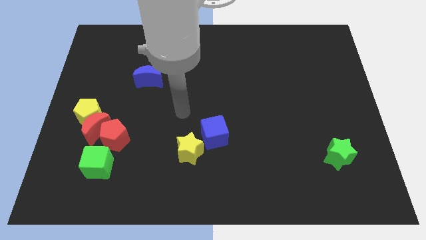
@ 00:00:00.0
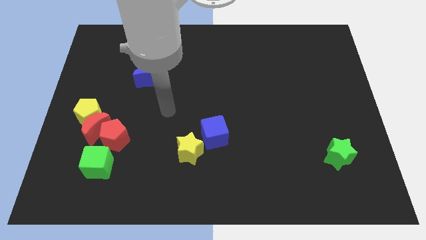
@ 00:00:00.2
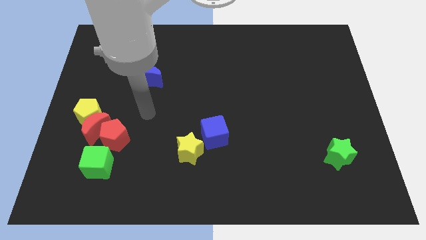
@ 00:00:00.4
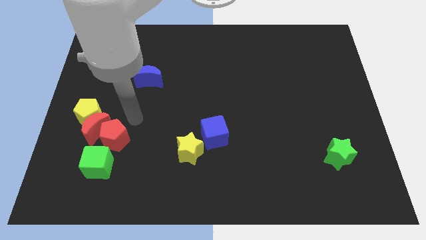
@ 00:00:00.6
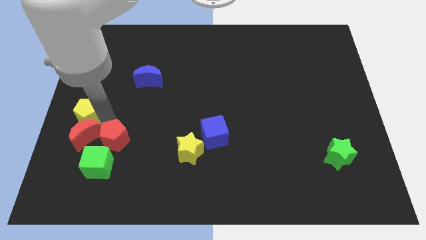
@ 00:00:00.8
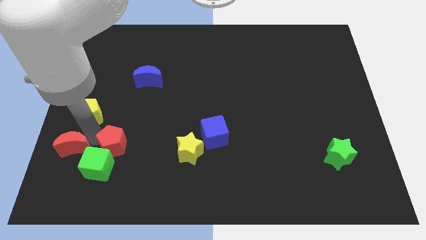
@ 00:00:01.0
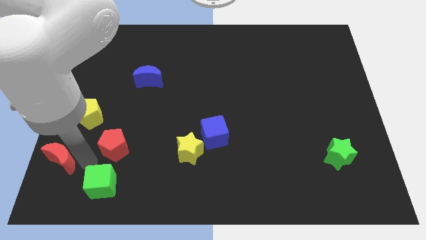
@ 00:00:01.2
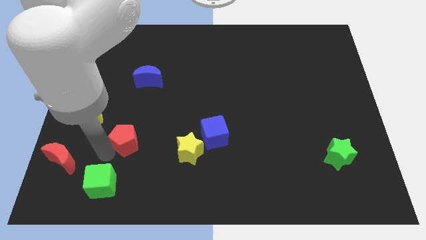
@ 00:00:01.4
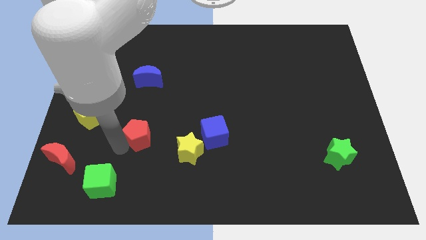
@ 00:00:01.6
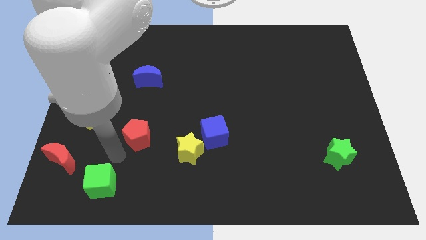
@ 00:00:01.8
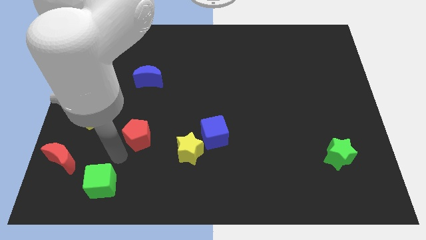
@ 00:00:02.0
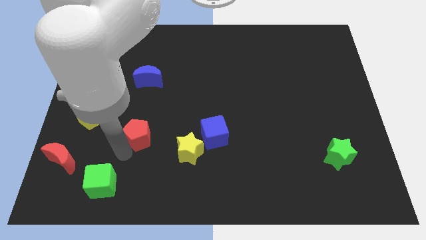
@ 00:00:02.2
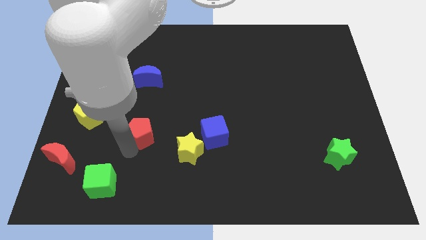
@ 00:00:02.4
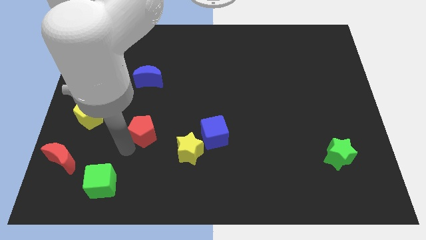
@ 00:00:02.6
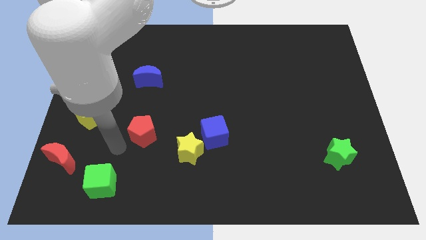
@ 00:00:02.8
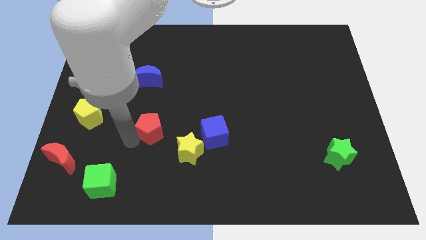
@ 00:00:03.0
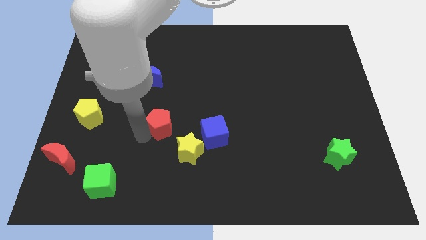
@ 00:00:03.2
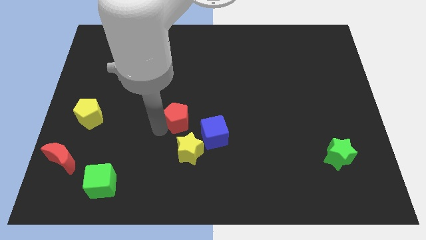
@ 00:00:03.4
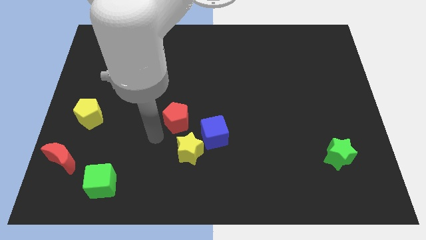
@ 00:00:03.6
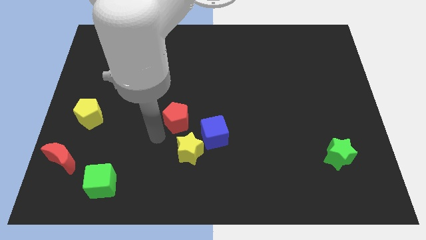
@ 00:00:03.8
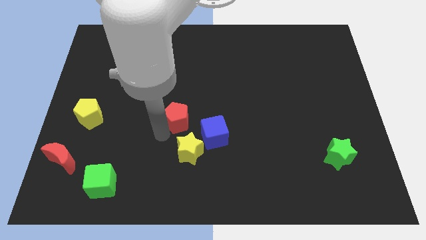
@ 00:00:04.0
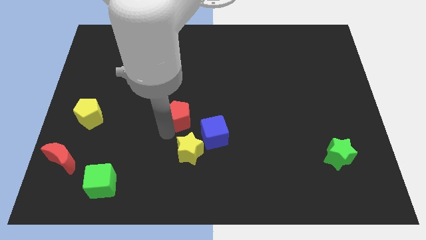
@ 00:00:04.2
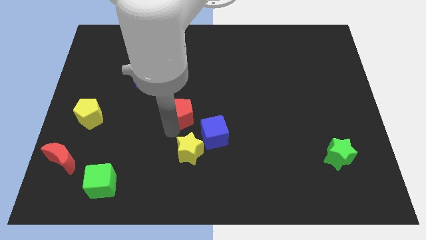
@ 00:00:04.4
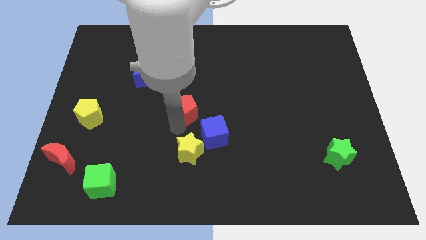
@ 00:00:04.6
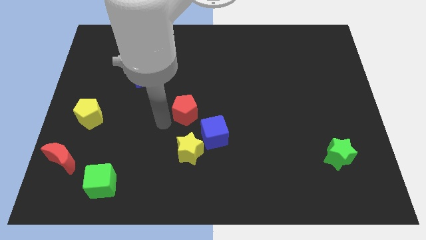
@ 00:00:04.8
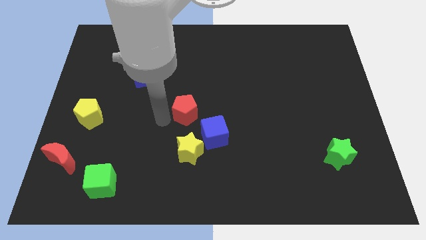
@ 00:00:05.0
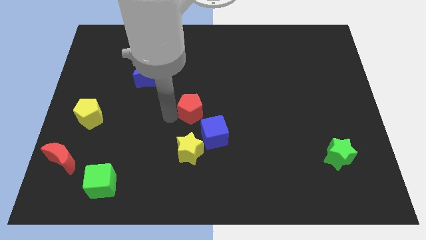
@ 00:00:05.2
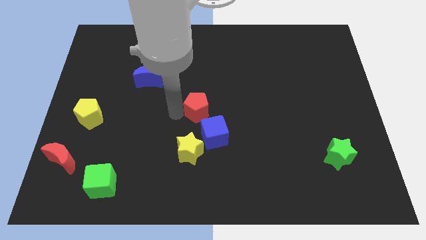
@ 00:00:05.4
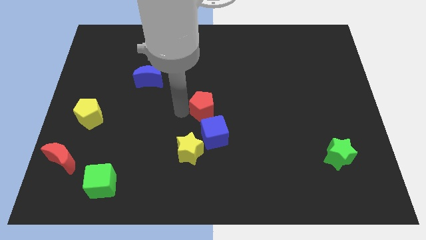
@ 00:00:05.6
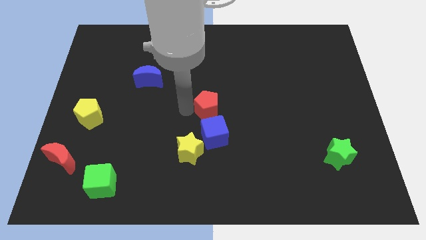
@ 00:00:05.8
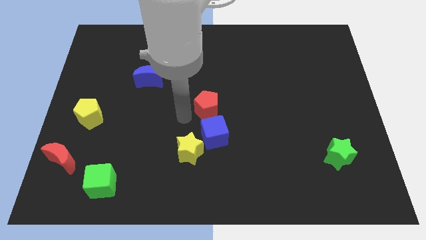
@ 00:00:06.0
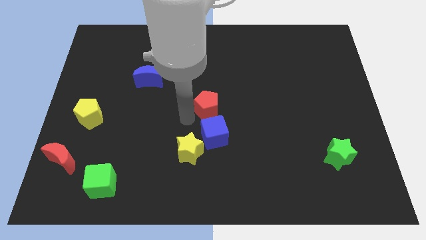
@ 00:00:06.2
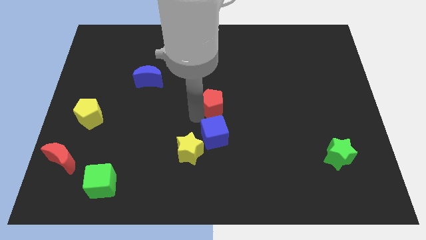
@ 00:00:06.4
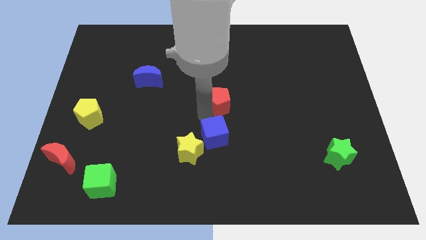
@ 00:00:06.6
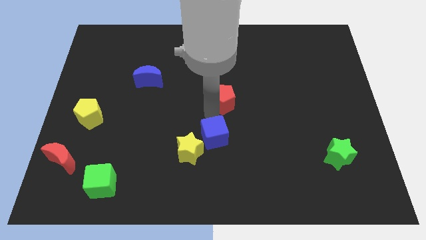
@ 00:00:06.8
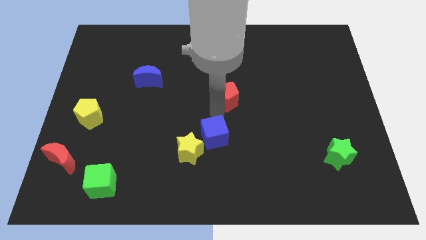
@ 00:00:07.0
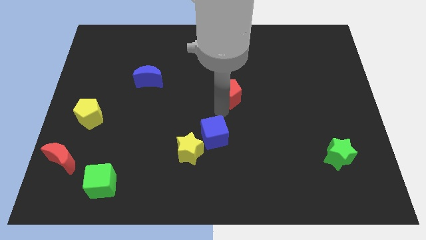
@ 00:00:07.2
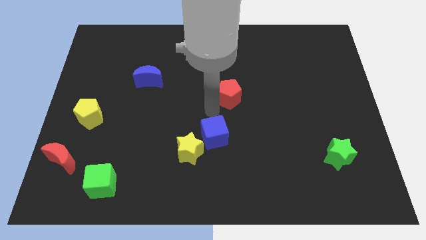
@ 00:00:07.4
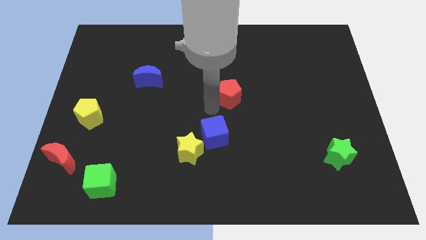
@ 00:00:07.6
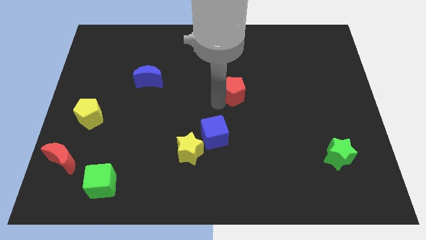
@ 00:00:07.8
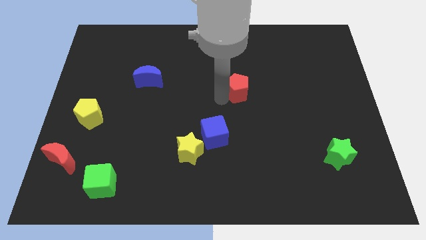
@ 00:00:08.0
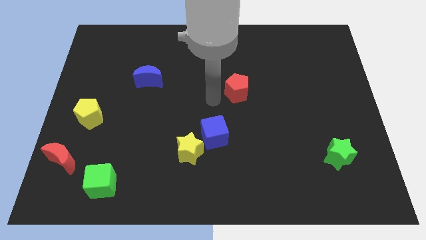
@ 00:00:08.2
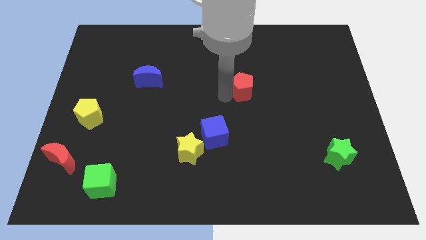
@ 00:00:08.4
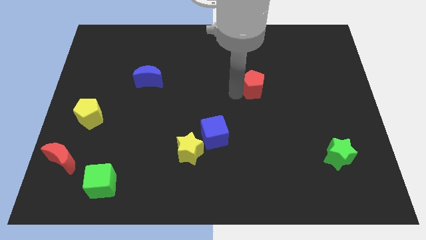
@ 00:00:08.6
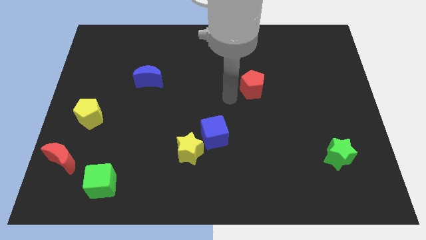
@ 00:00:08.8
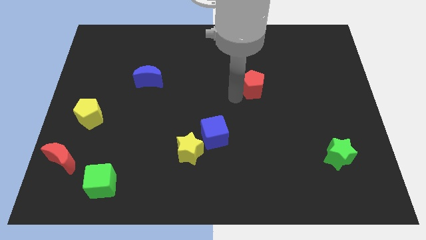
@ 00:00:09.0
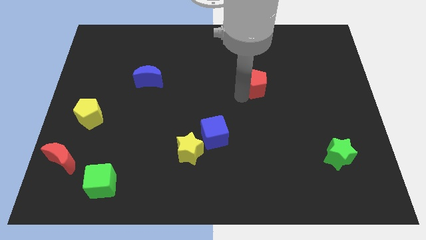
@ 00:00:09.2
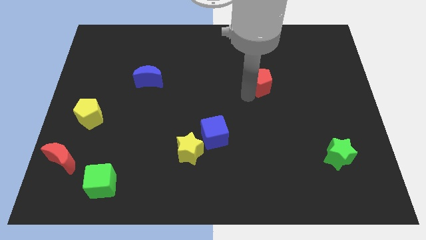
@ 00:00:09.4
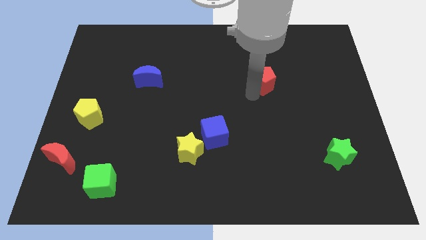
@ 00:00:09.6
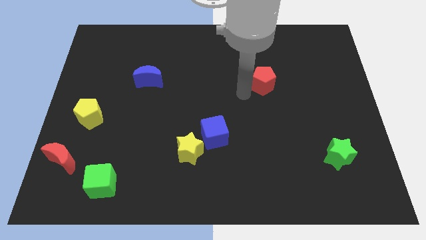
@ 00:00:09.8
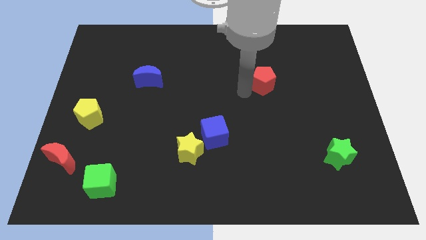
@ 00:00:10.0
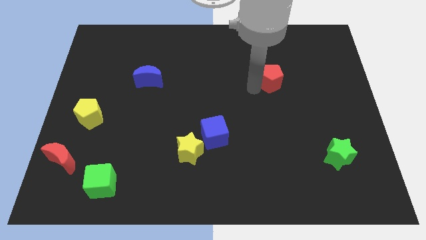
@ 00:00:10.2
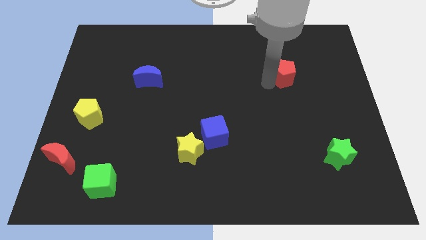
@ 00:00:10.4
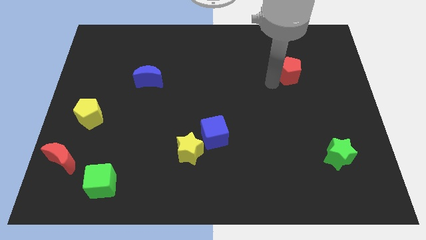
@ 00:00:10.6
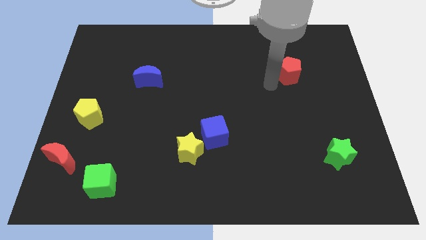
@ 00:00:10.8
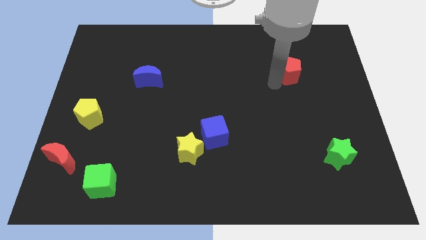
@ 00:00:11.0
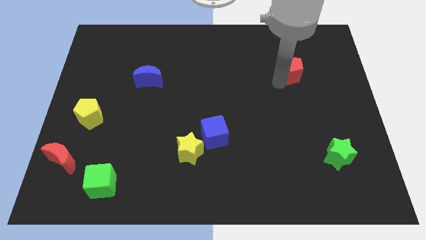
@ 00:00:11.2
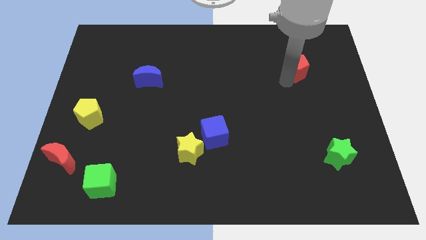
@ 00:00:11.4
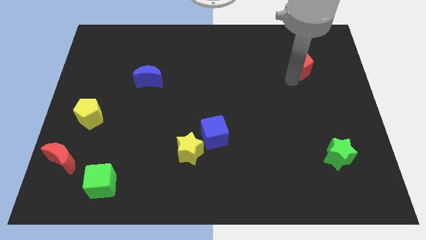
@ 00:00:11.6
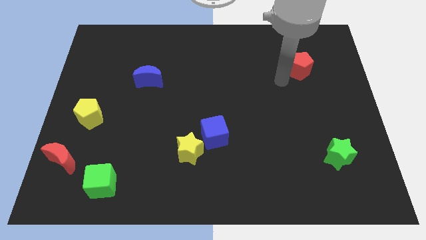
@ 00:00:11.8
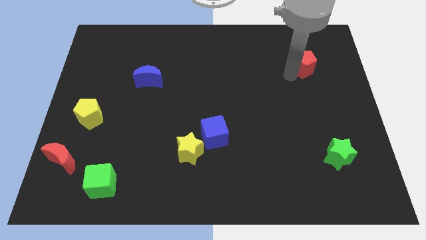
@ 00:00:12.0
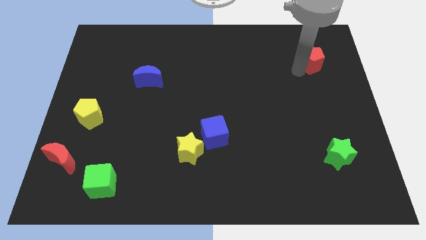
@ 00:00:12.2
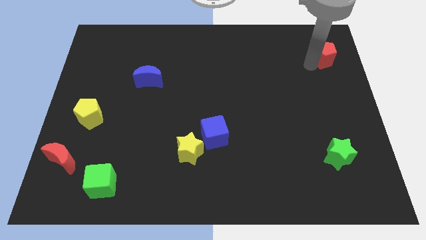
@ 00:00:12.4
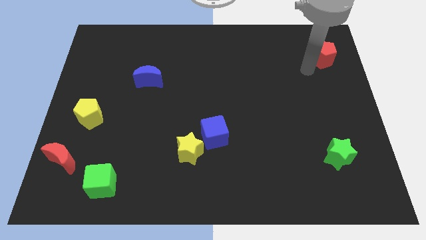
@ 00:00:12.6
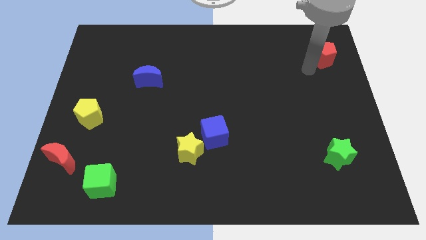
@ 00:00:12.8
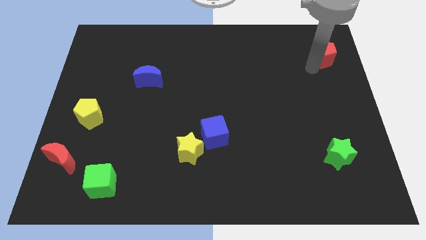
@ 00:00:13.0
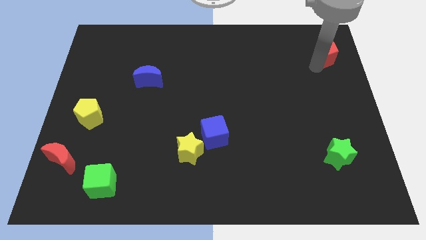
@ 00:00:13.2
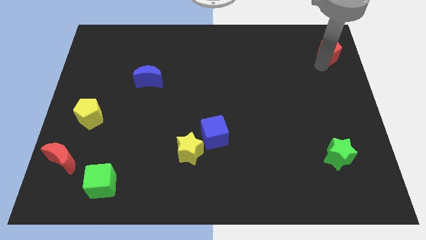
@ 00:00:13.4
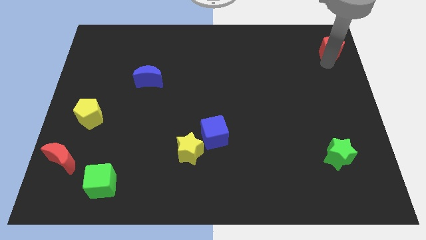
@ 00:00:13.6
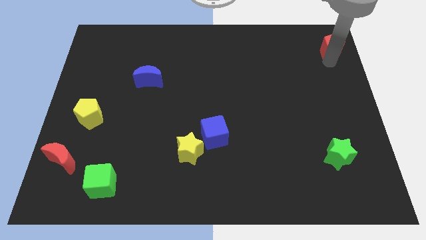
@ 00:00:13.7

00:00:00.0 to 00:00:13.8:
slide the red pentagon to the top right
